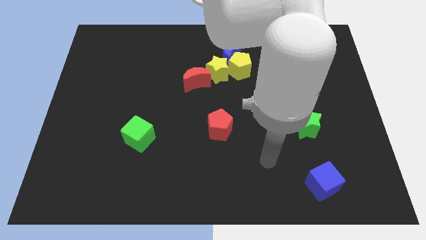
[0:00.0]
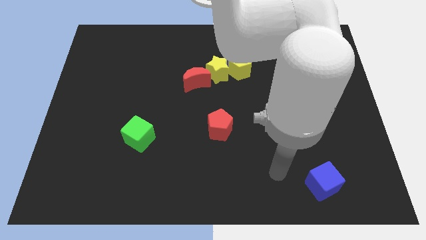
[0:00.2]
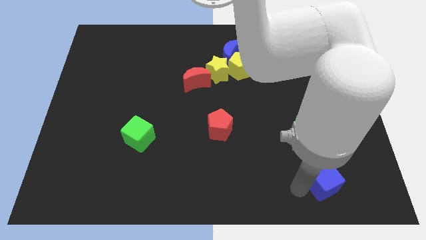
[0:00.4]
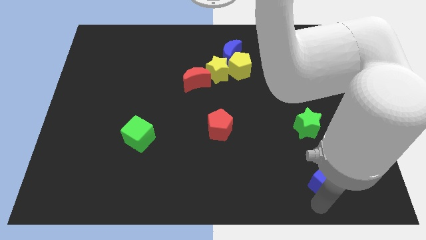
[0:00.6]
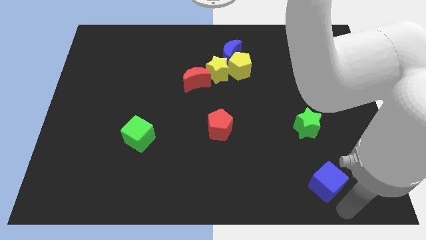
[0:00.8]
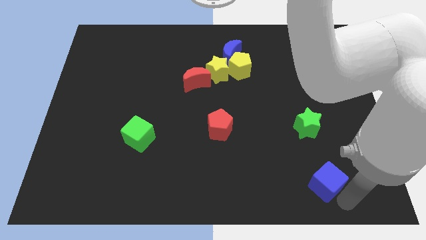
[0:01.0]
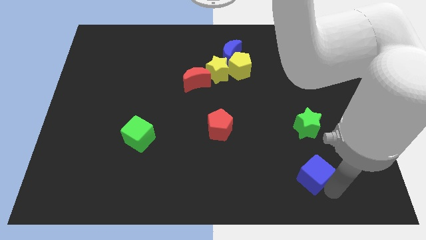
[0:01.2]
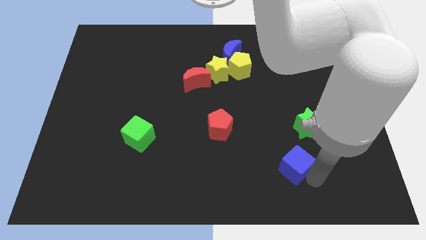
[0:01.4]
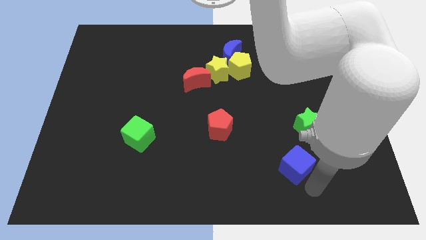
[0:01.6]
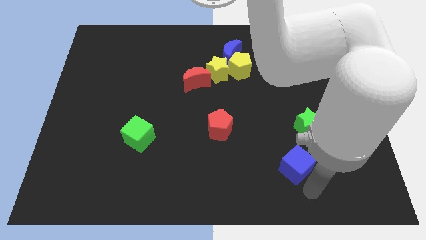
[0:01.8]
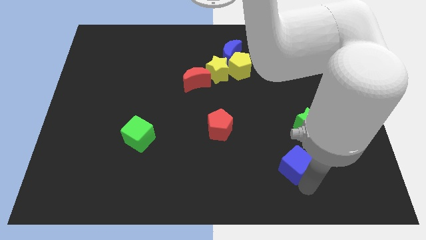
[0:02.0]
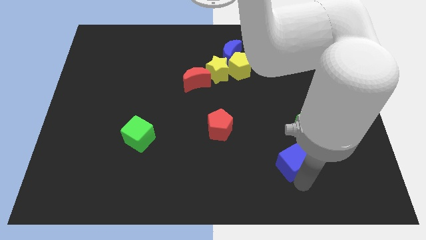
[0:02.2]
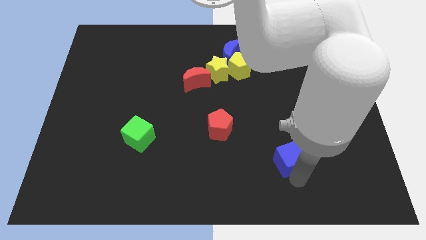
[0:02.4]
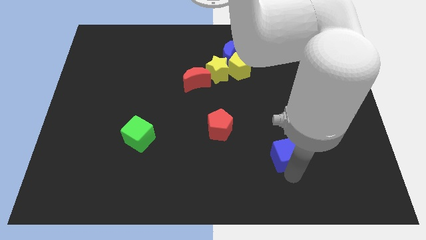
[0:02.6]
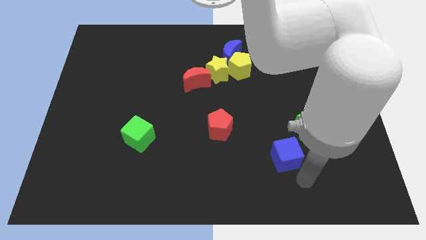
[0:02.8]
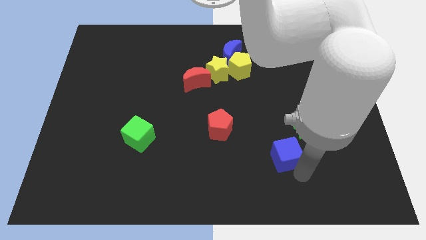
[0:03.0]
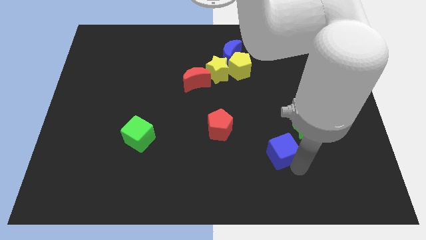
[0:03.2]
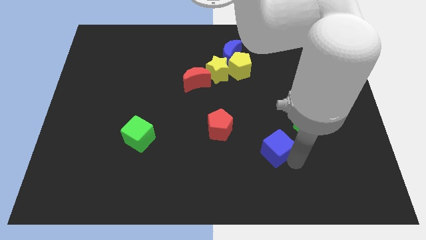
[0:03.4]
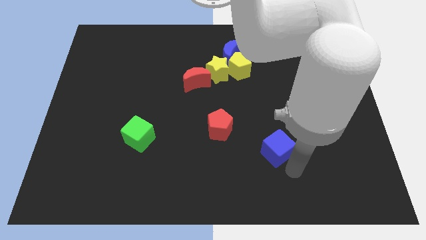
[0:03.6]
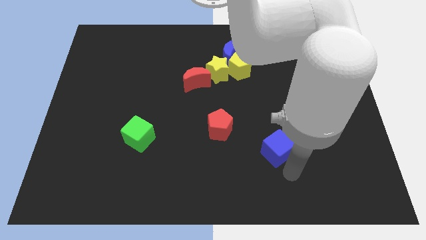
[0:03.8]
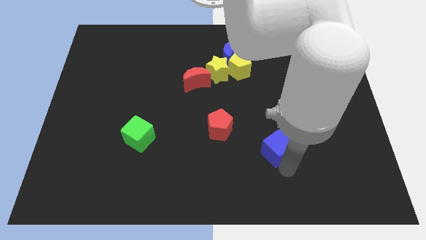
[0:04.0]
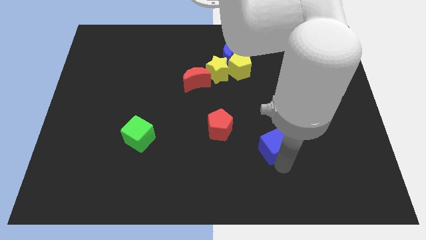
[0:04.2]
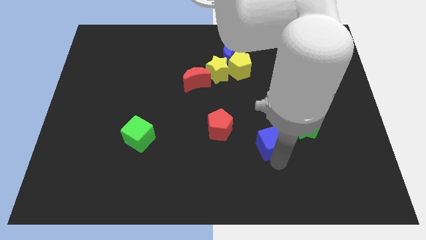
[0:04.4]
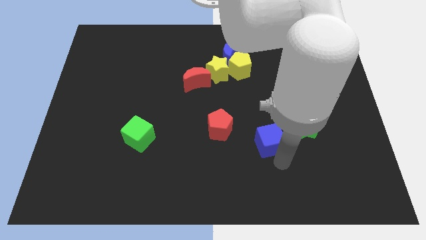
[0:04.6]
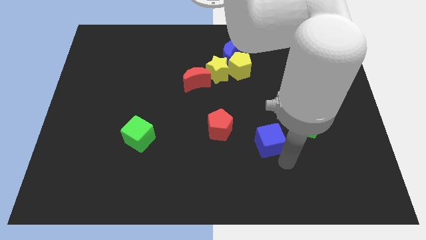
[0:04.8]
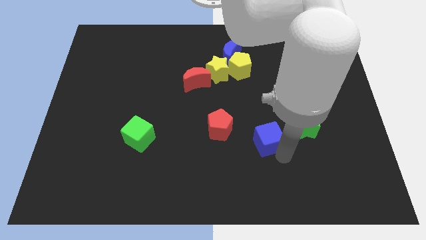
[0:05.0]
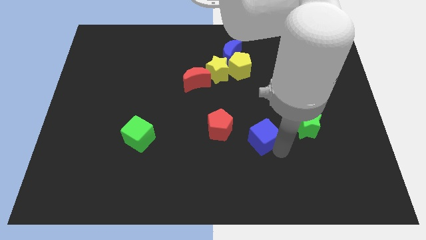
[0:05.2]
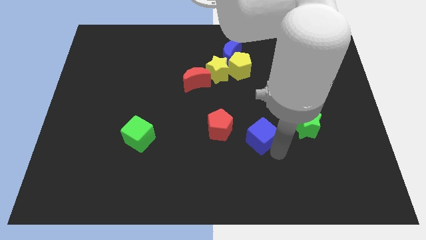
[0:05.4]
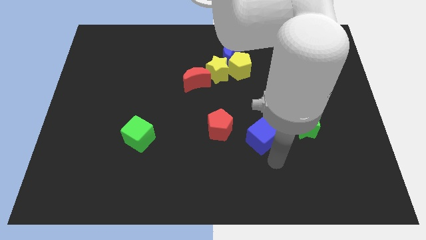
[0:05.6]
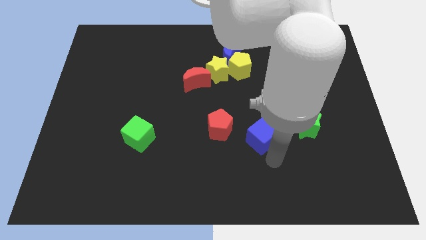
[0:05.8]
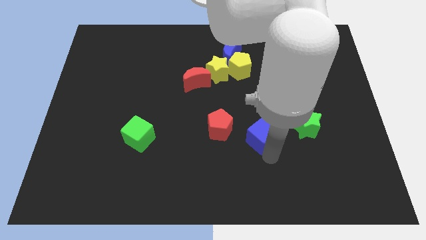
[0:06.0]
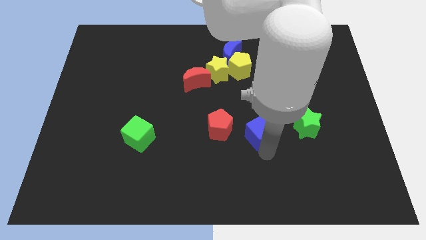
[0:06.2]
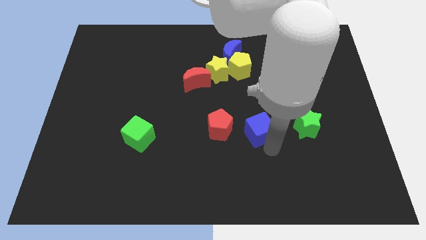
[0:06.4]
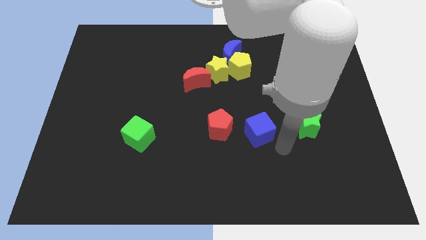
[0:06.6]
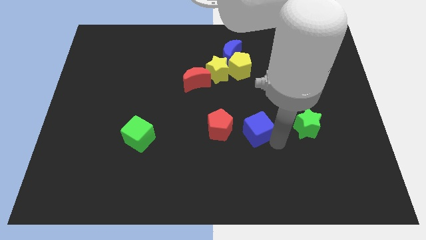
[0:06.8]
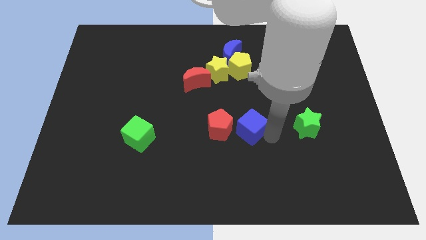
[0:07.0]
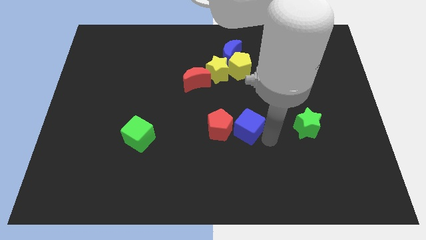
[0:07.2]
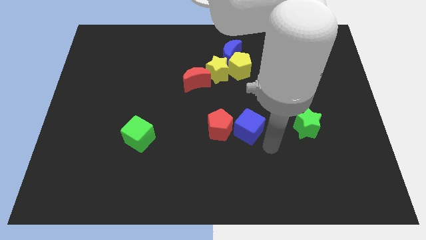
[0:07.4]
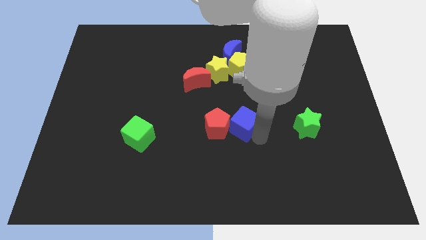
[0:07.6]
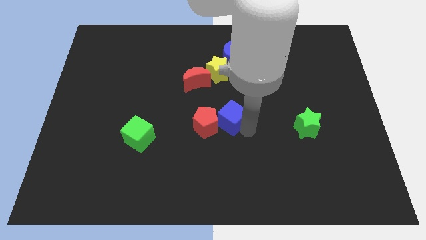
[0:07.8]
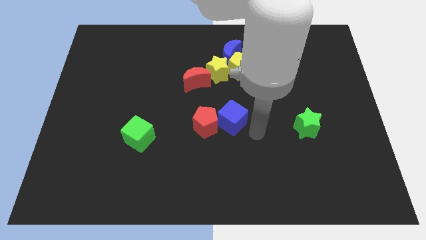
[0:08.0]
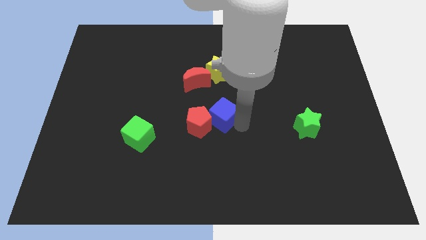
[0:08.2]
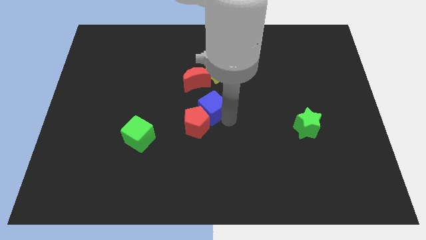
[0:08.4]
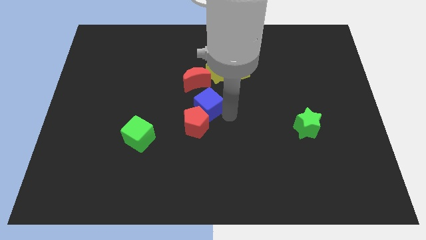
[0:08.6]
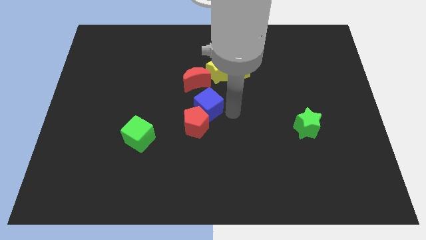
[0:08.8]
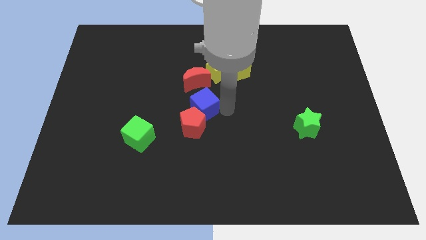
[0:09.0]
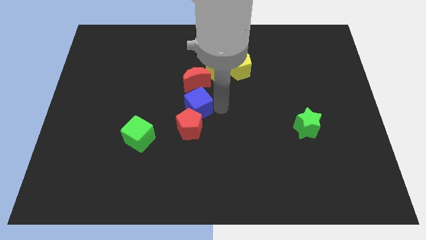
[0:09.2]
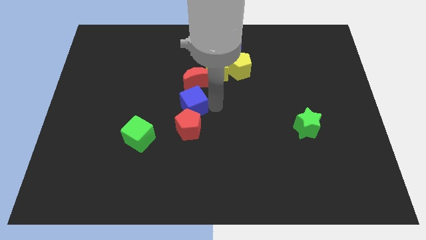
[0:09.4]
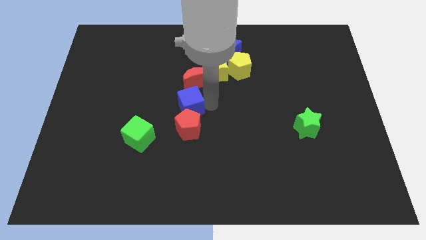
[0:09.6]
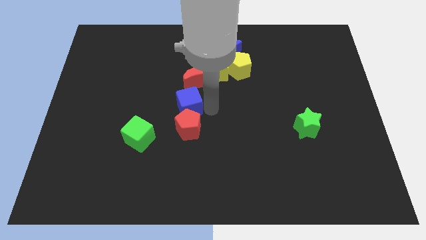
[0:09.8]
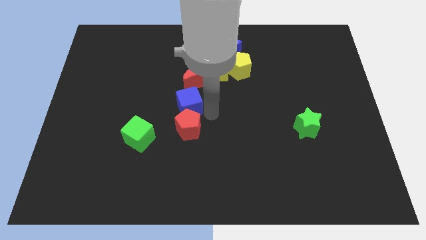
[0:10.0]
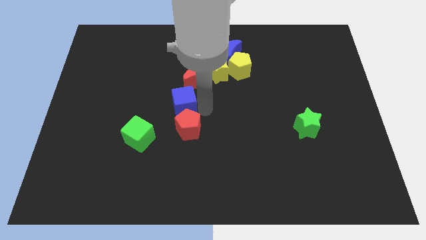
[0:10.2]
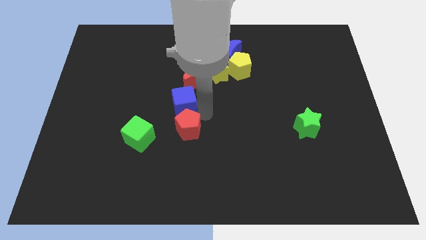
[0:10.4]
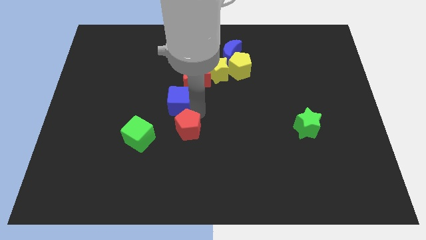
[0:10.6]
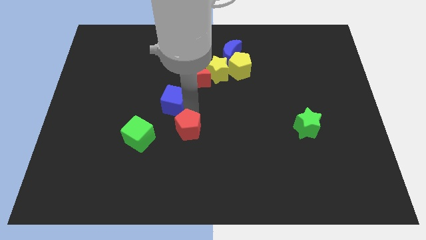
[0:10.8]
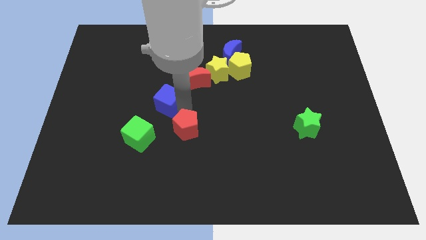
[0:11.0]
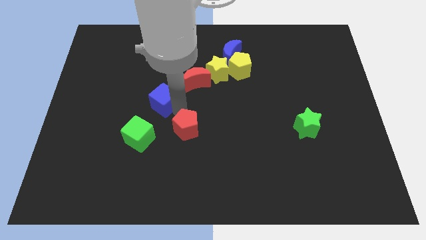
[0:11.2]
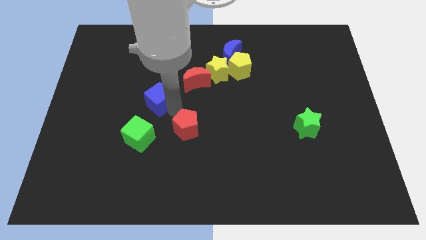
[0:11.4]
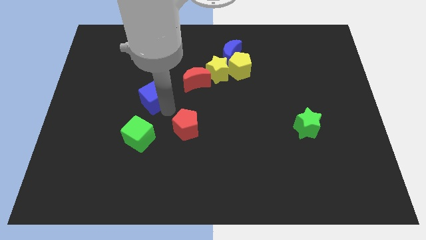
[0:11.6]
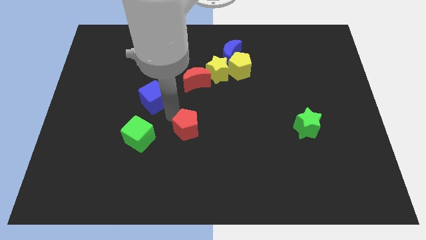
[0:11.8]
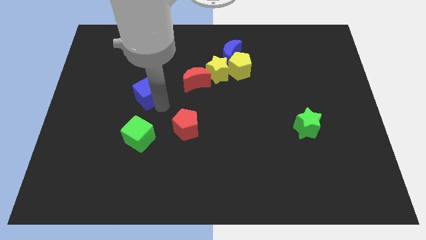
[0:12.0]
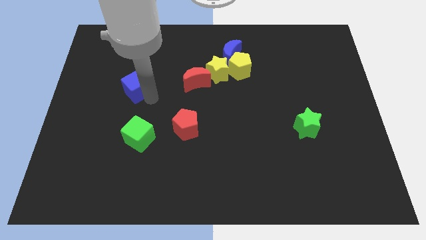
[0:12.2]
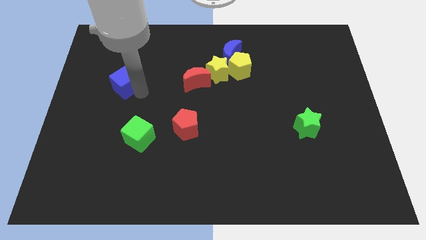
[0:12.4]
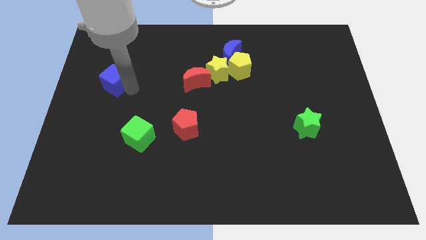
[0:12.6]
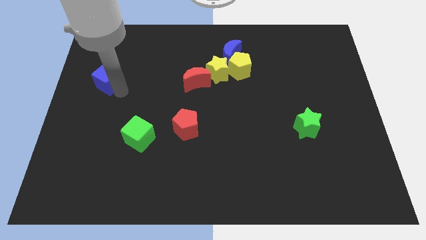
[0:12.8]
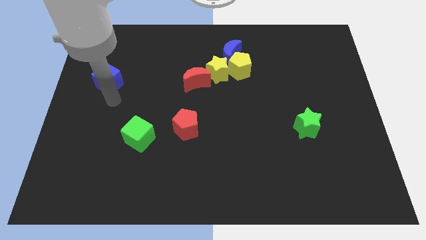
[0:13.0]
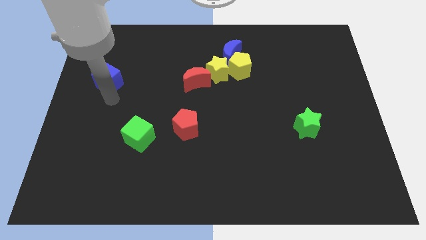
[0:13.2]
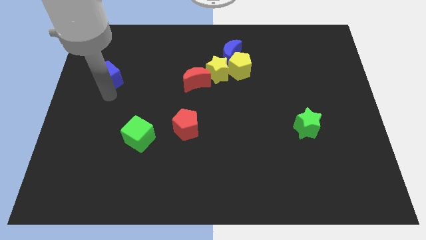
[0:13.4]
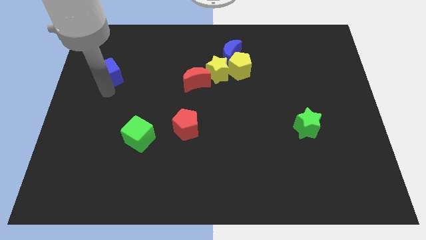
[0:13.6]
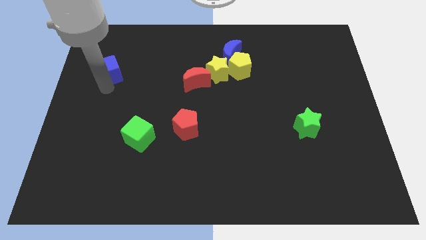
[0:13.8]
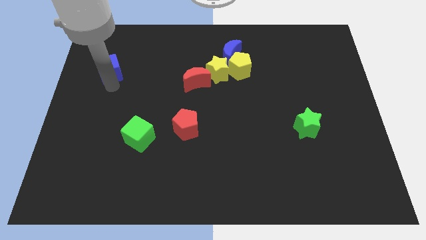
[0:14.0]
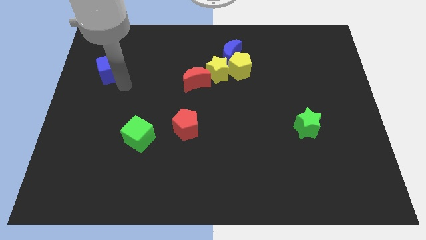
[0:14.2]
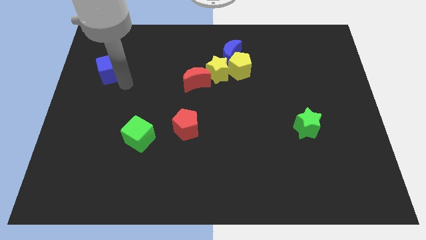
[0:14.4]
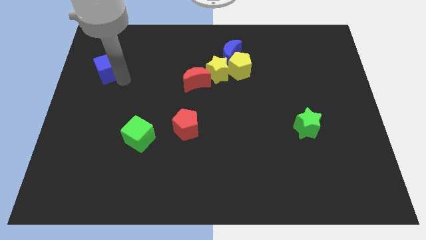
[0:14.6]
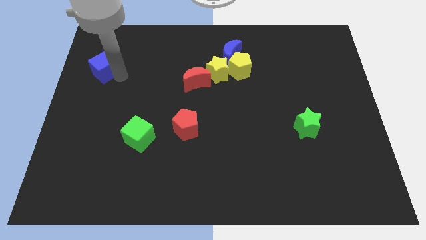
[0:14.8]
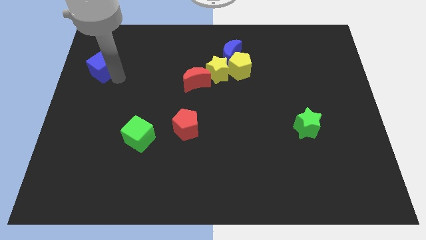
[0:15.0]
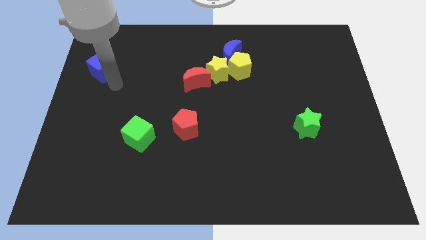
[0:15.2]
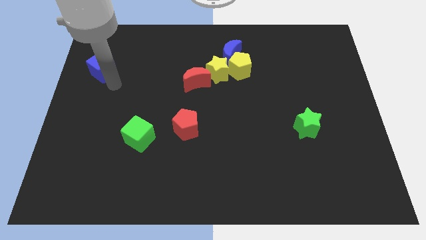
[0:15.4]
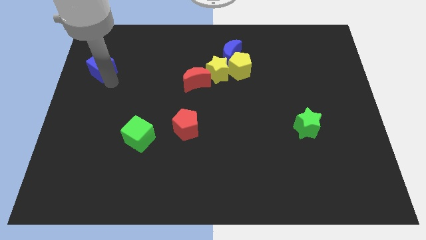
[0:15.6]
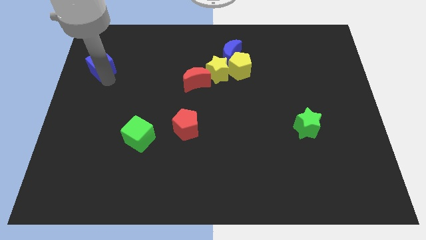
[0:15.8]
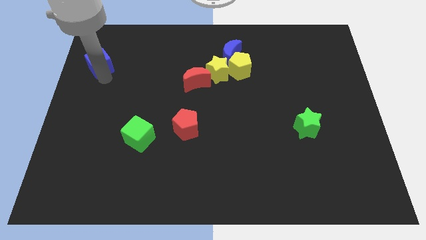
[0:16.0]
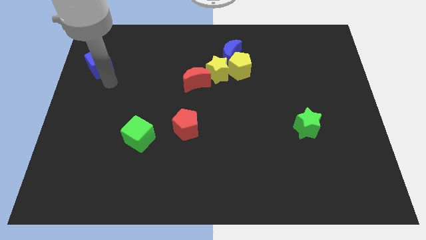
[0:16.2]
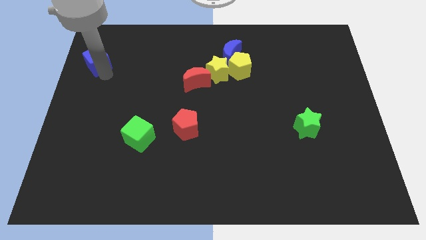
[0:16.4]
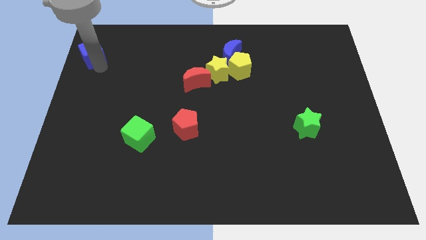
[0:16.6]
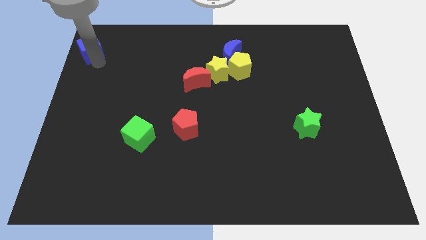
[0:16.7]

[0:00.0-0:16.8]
push the blue cube to the top left of the board
